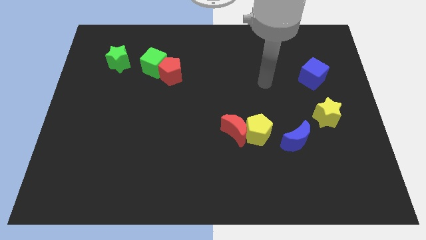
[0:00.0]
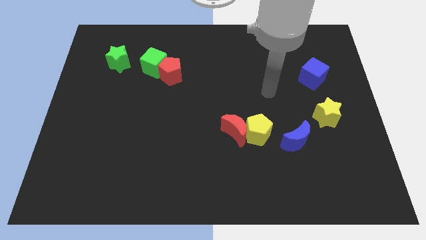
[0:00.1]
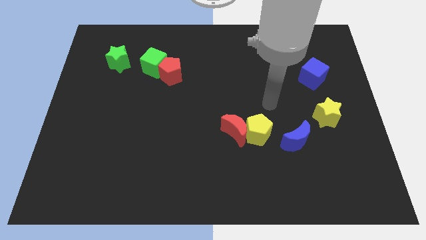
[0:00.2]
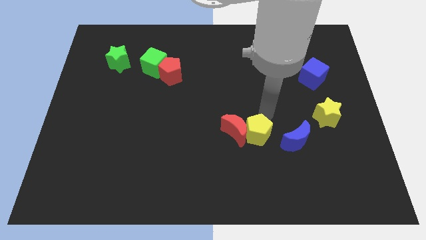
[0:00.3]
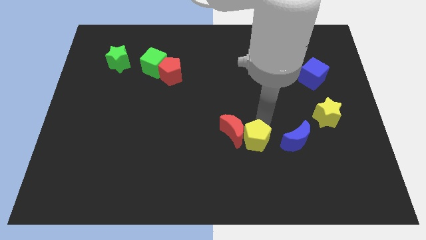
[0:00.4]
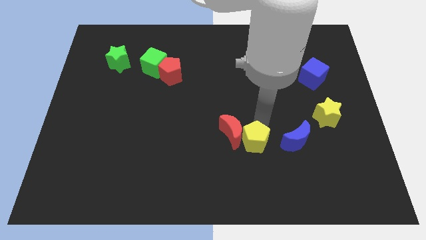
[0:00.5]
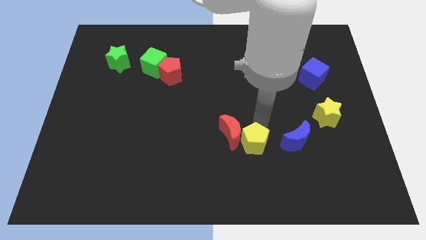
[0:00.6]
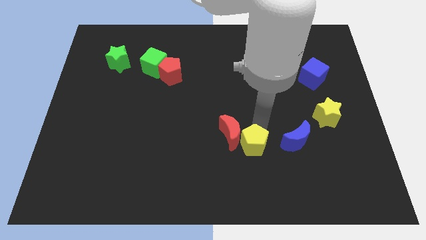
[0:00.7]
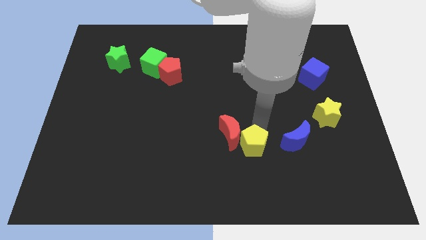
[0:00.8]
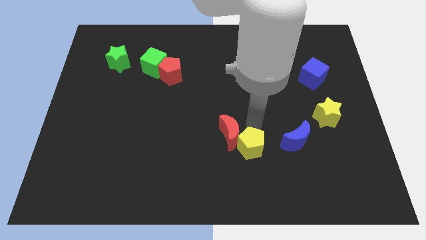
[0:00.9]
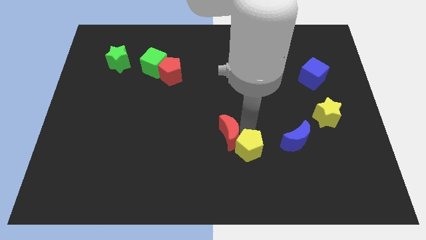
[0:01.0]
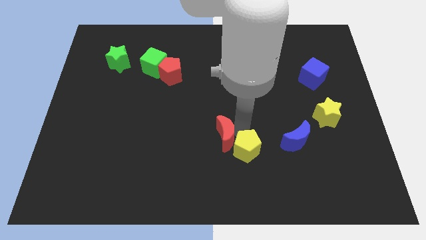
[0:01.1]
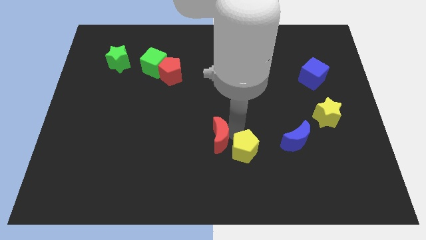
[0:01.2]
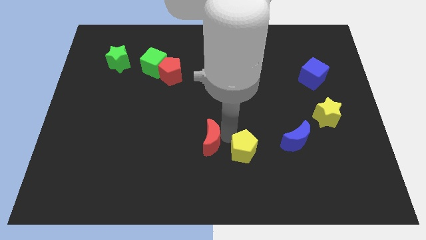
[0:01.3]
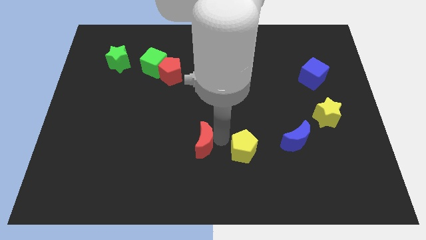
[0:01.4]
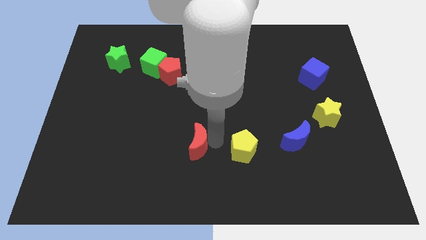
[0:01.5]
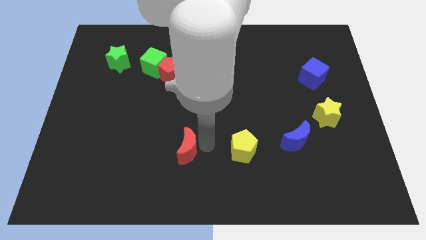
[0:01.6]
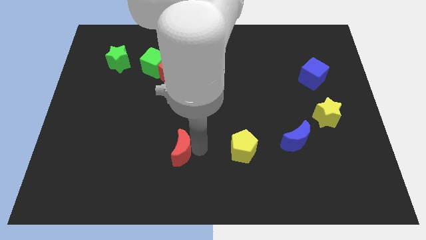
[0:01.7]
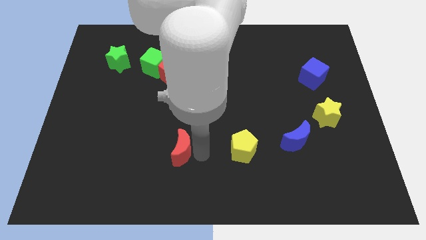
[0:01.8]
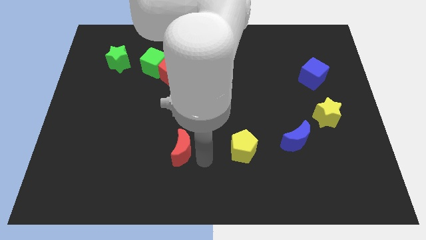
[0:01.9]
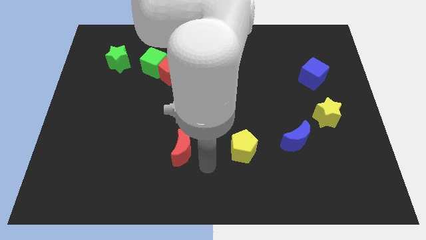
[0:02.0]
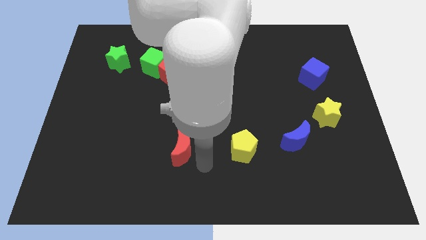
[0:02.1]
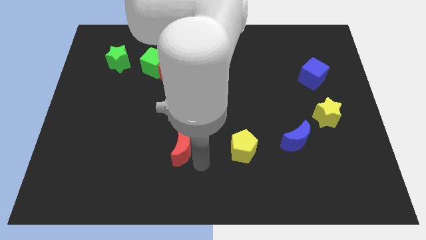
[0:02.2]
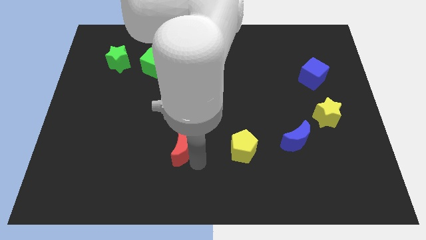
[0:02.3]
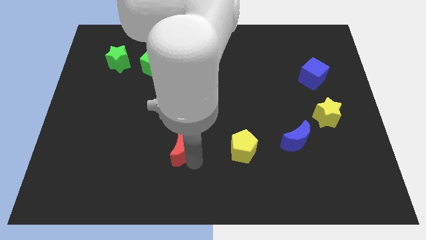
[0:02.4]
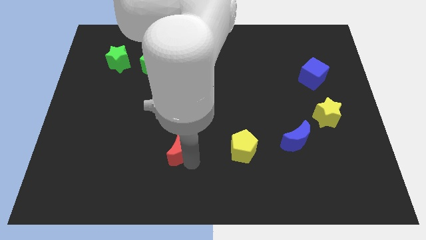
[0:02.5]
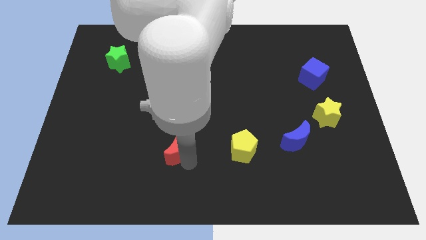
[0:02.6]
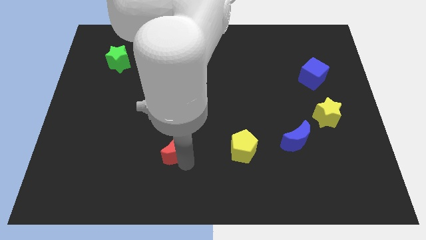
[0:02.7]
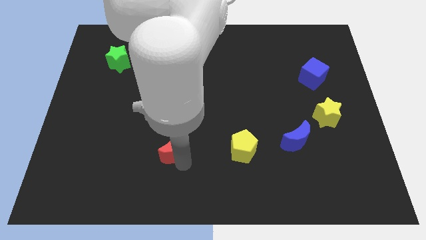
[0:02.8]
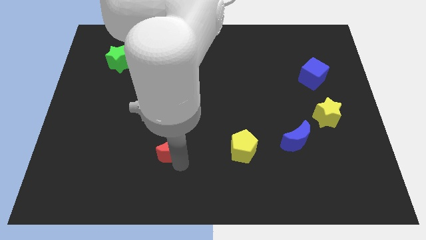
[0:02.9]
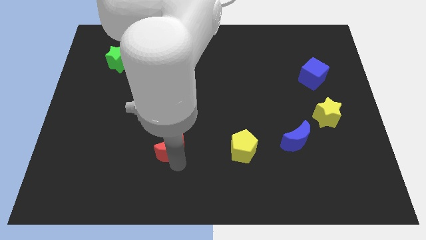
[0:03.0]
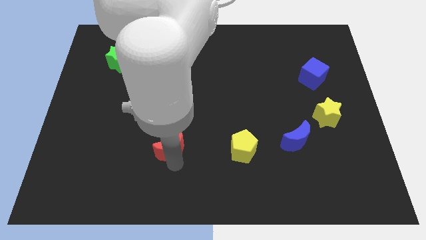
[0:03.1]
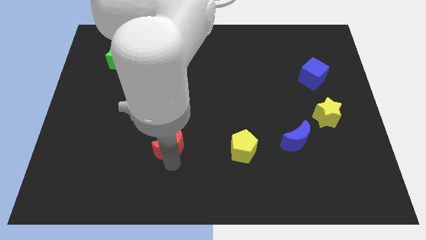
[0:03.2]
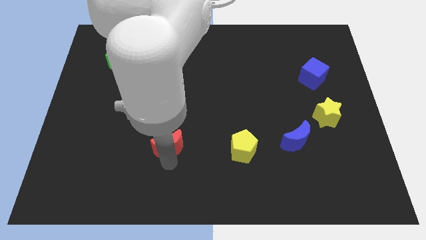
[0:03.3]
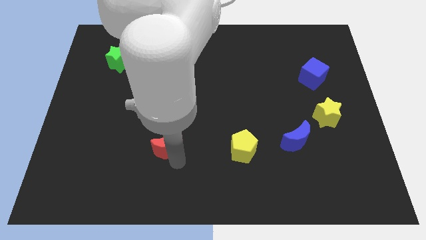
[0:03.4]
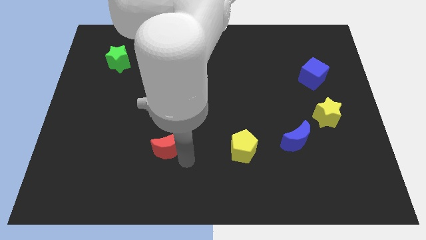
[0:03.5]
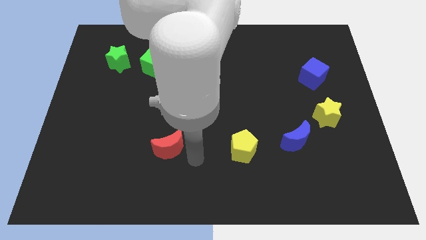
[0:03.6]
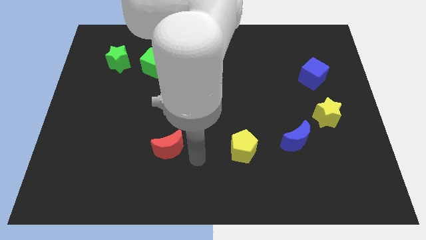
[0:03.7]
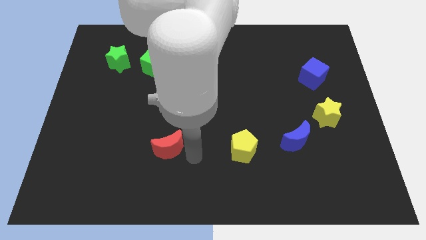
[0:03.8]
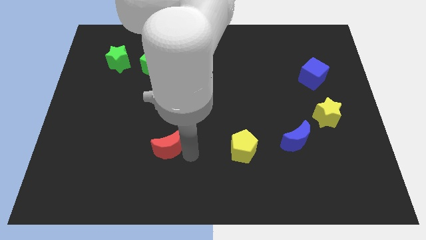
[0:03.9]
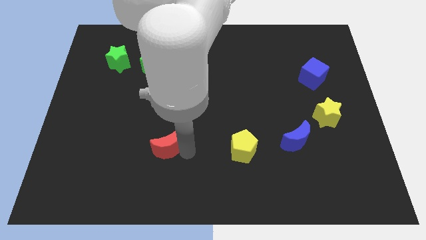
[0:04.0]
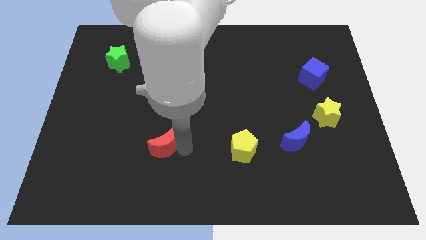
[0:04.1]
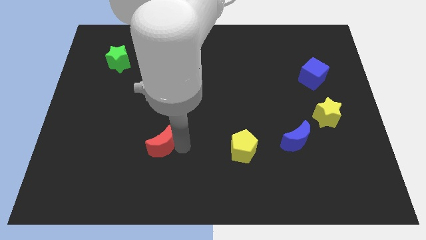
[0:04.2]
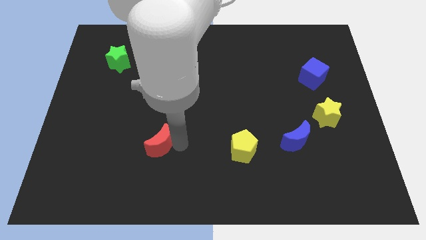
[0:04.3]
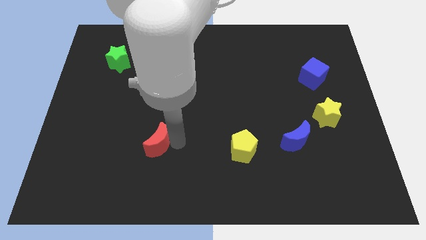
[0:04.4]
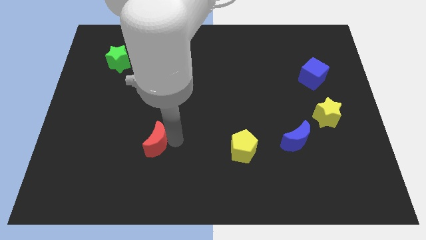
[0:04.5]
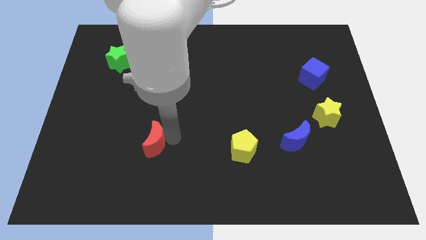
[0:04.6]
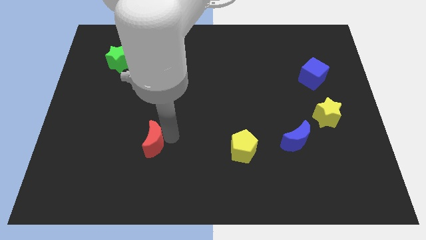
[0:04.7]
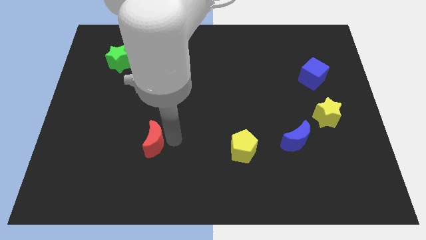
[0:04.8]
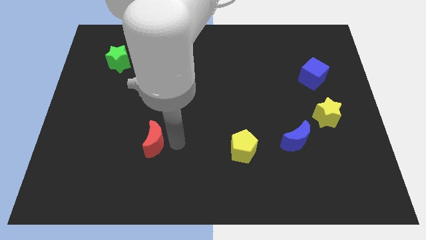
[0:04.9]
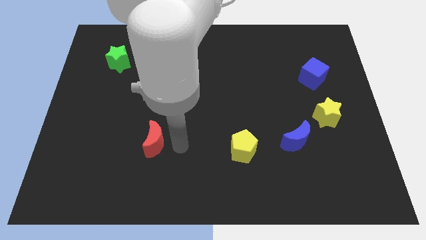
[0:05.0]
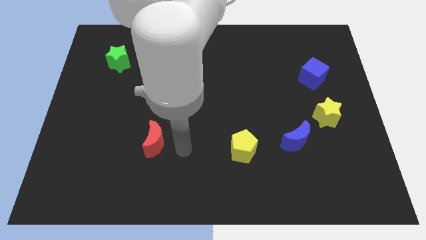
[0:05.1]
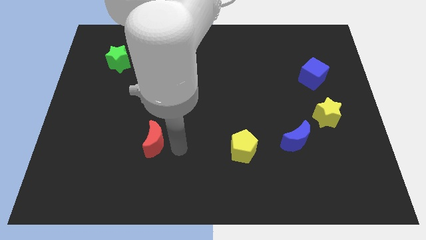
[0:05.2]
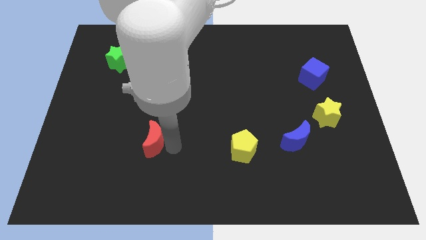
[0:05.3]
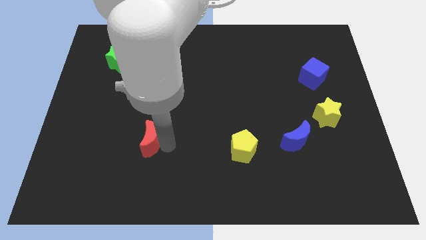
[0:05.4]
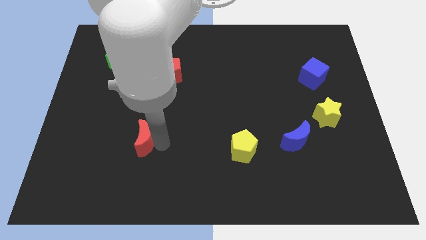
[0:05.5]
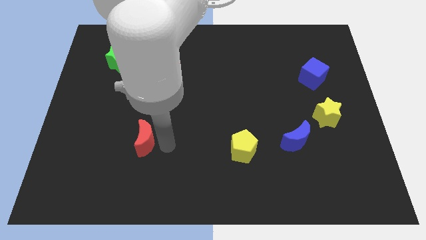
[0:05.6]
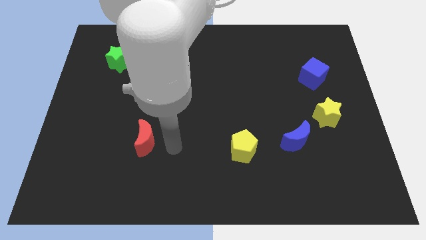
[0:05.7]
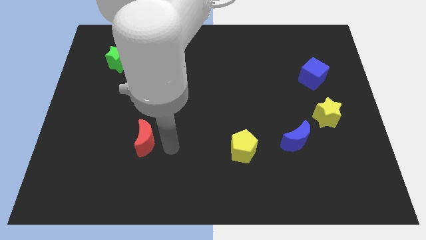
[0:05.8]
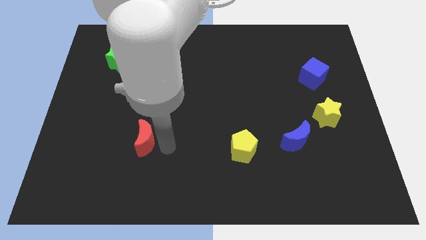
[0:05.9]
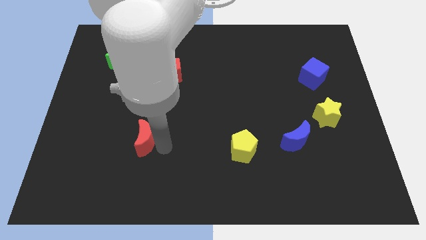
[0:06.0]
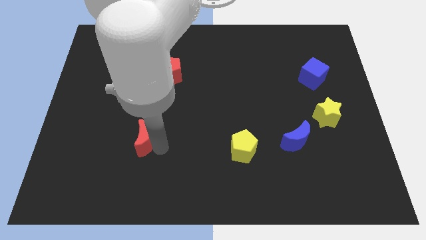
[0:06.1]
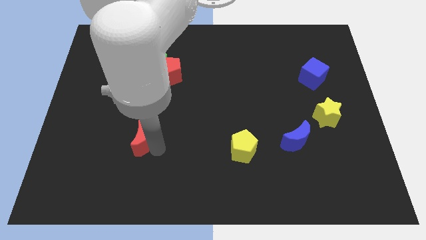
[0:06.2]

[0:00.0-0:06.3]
slide the red moon left

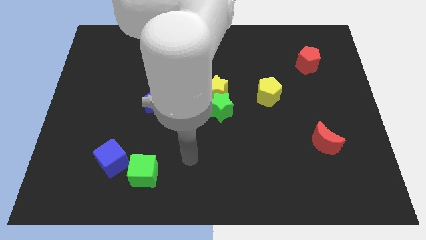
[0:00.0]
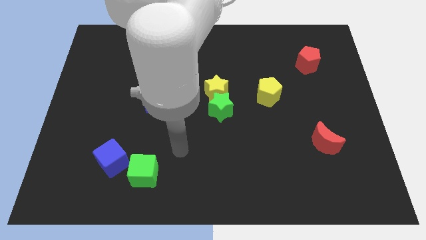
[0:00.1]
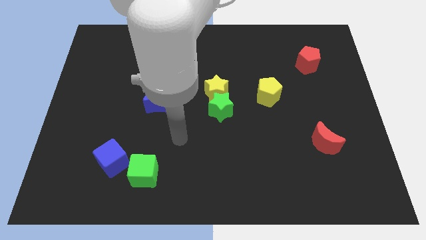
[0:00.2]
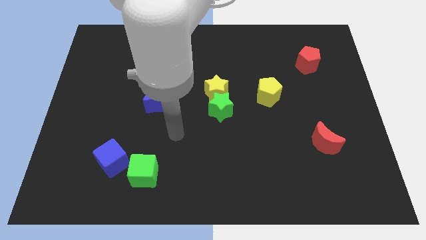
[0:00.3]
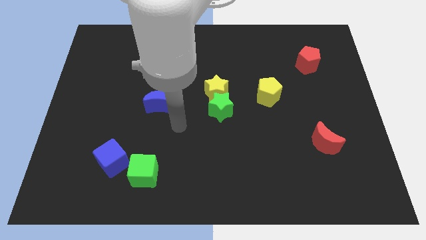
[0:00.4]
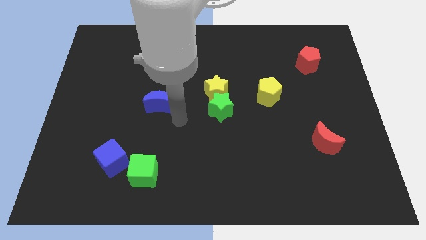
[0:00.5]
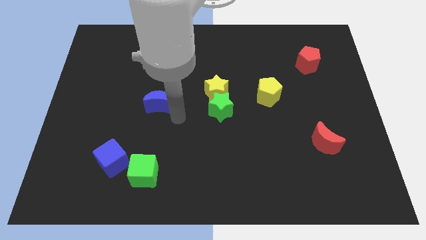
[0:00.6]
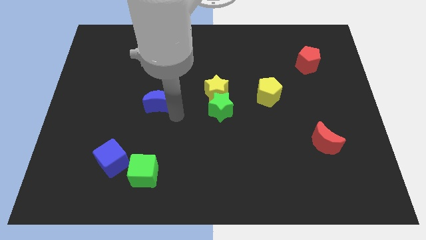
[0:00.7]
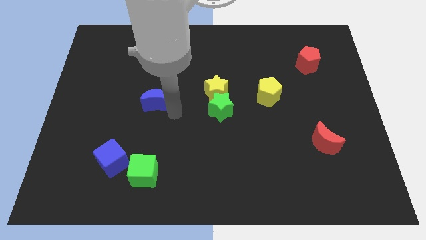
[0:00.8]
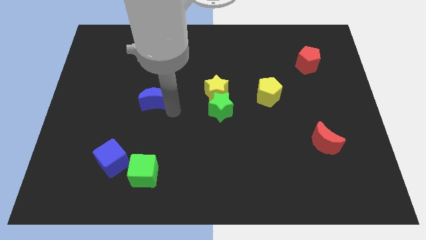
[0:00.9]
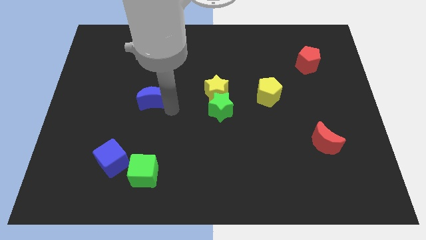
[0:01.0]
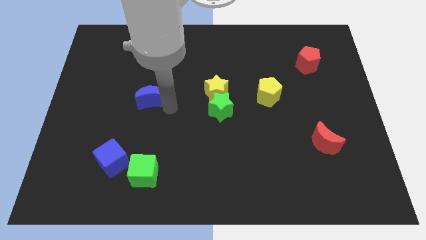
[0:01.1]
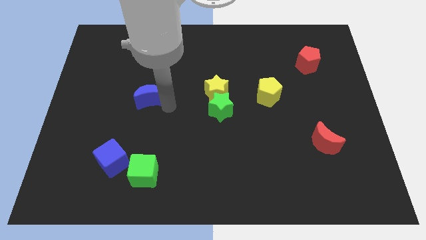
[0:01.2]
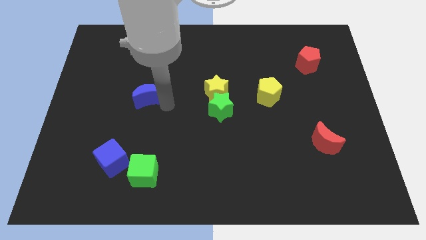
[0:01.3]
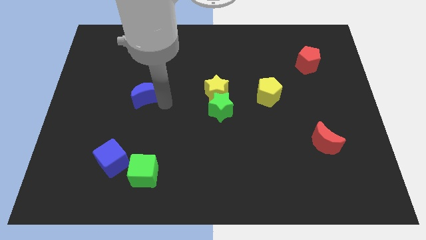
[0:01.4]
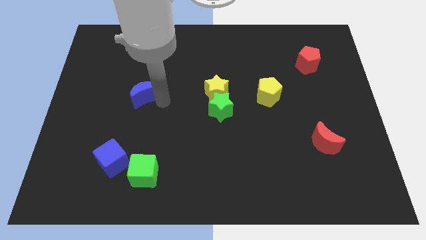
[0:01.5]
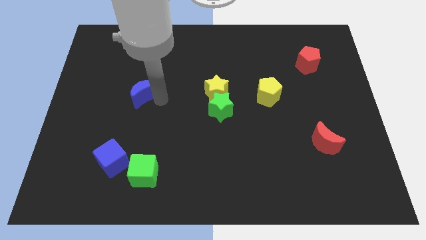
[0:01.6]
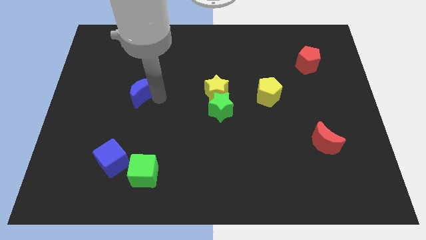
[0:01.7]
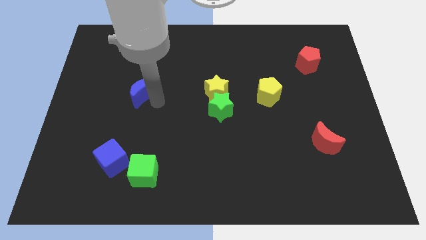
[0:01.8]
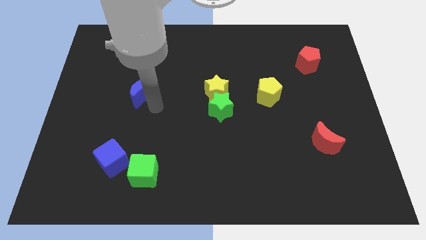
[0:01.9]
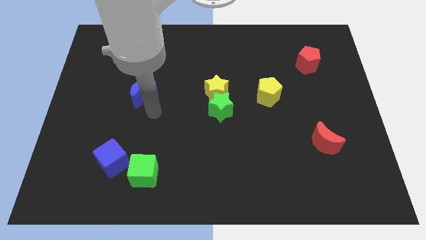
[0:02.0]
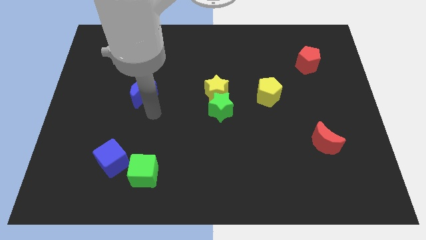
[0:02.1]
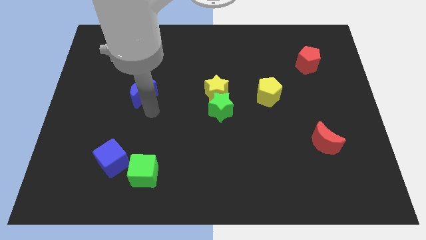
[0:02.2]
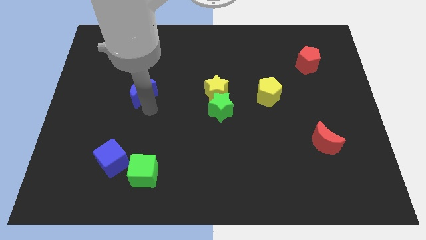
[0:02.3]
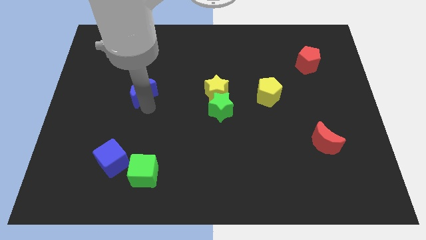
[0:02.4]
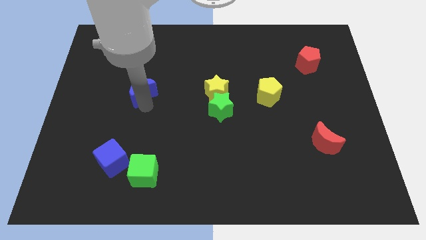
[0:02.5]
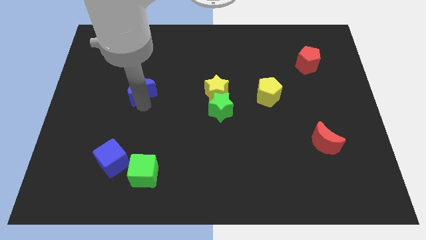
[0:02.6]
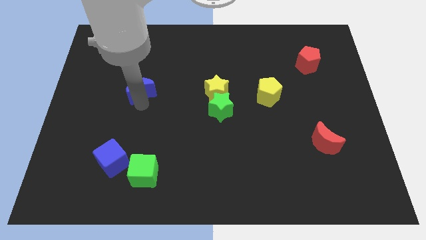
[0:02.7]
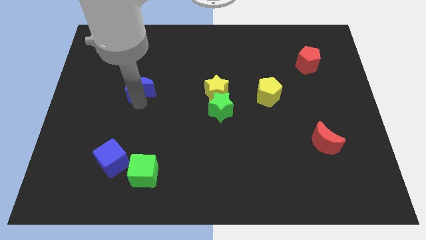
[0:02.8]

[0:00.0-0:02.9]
slightly slide the blue moon up and to the left diagonally
